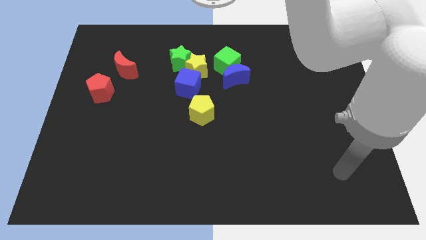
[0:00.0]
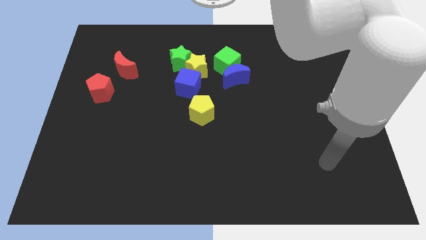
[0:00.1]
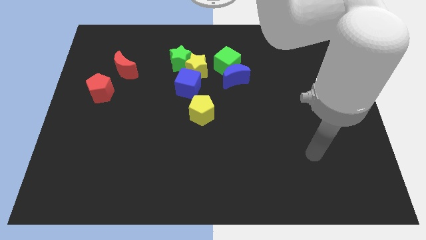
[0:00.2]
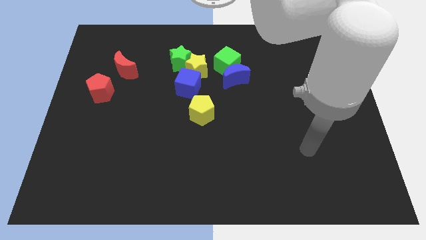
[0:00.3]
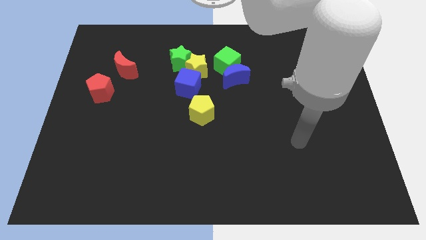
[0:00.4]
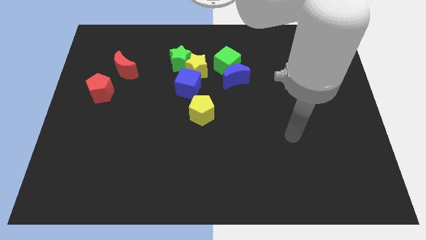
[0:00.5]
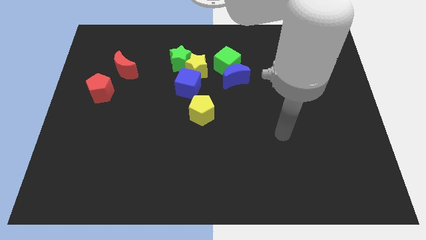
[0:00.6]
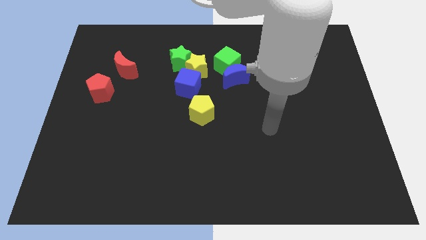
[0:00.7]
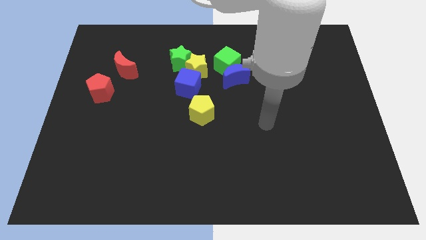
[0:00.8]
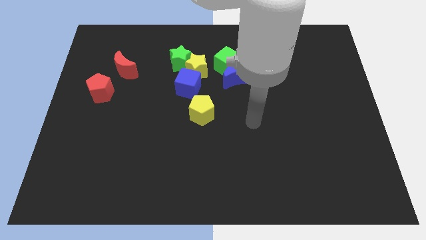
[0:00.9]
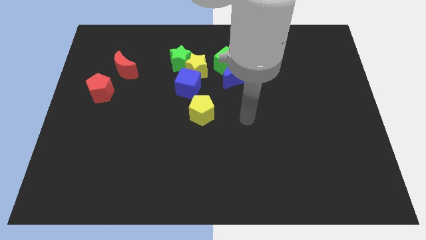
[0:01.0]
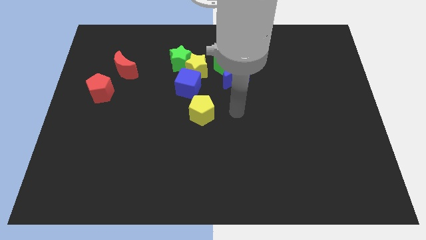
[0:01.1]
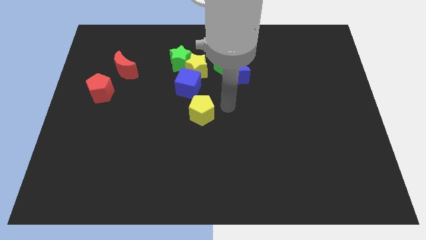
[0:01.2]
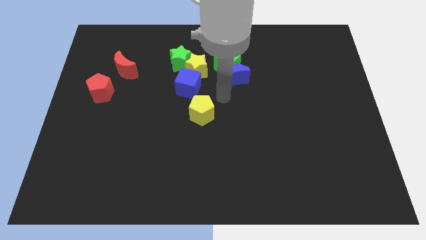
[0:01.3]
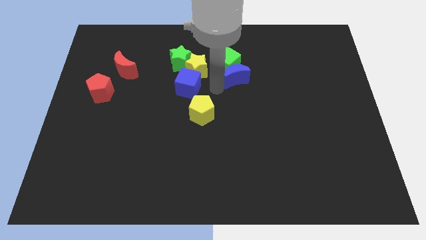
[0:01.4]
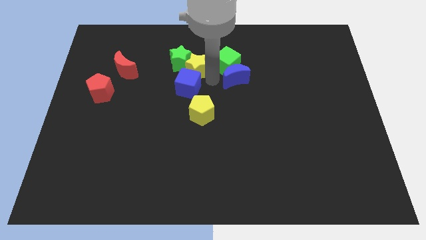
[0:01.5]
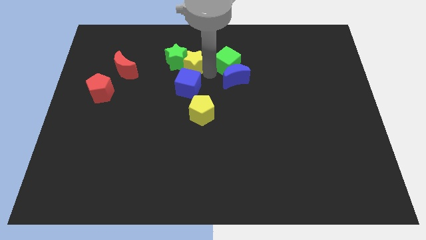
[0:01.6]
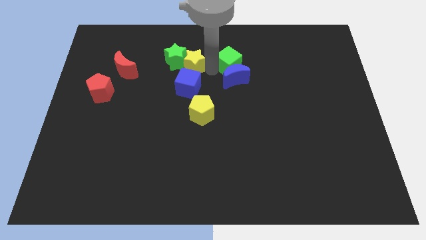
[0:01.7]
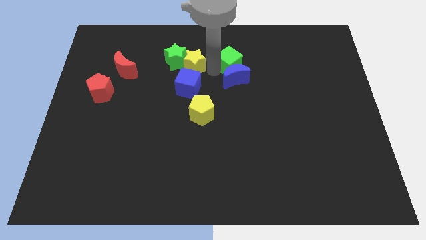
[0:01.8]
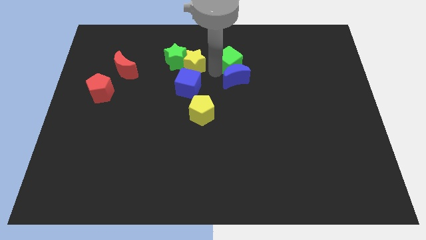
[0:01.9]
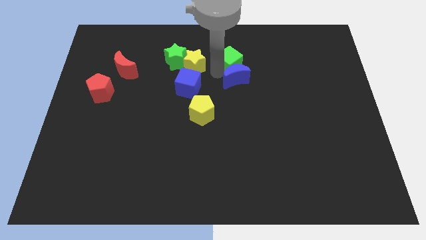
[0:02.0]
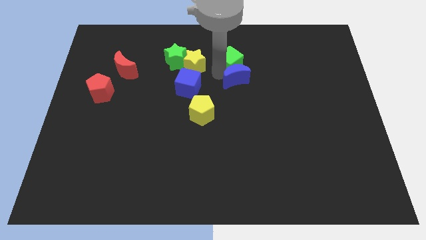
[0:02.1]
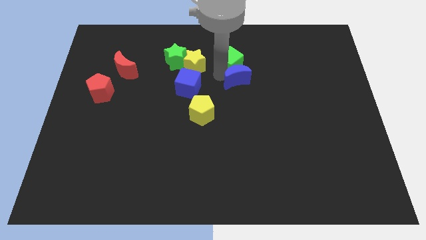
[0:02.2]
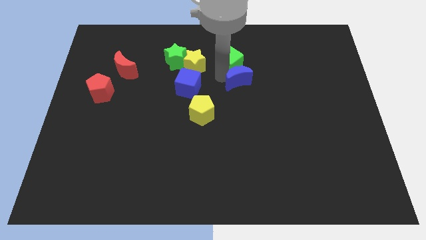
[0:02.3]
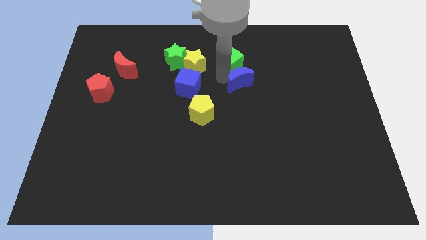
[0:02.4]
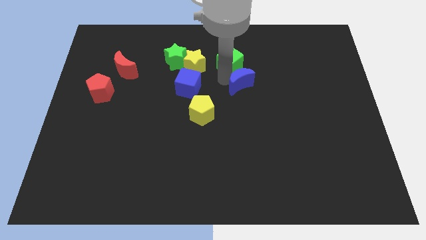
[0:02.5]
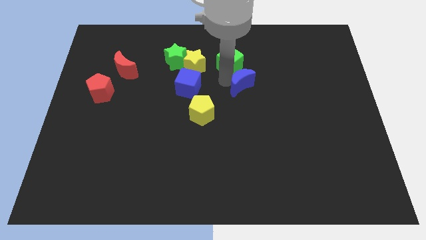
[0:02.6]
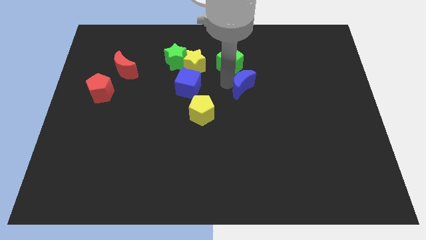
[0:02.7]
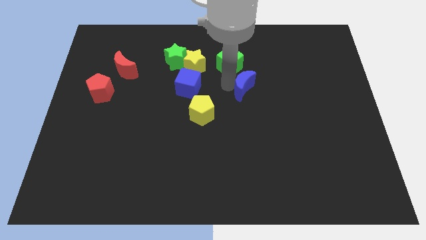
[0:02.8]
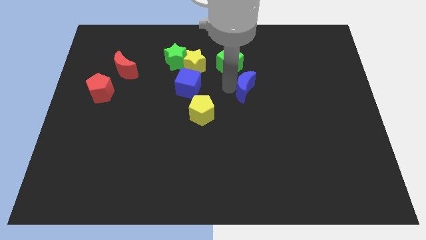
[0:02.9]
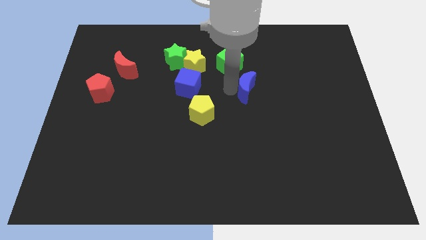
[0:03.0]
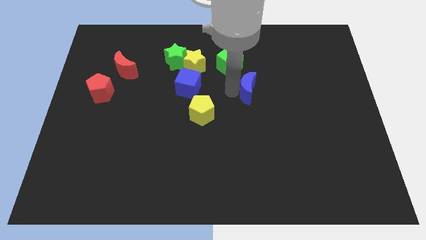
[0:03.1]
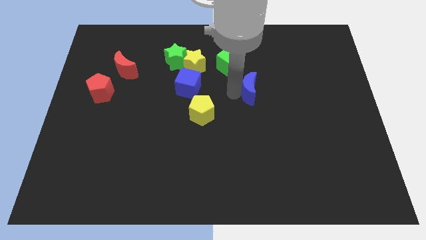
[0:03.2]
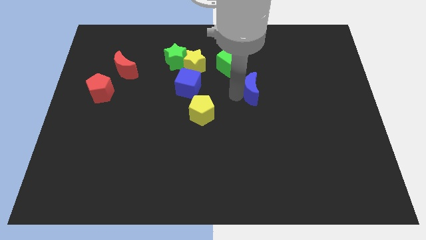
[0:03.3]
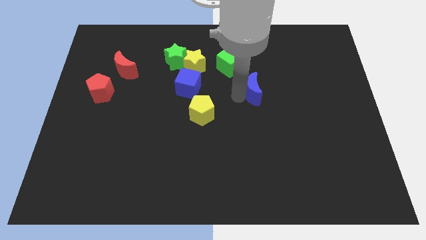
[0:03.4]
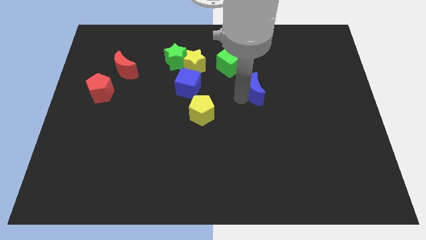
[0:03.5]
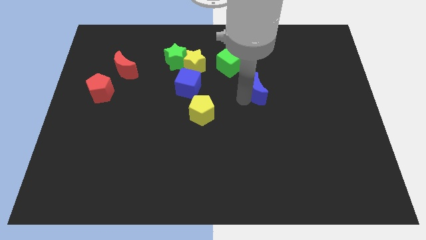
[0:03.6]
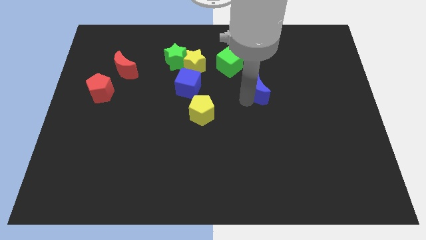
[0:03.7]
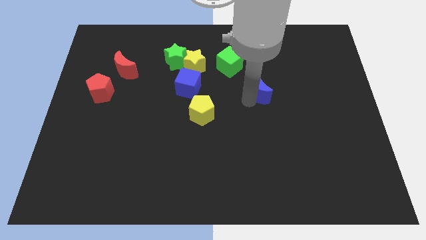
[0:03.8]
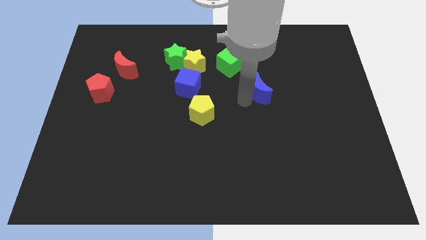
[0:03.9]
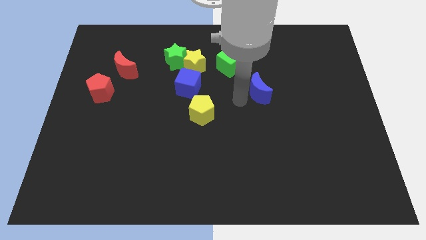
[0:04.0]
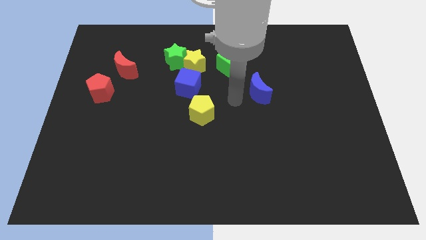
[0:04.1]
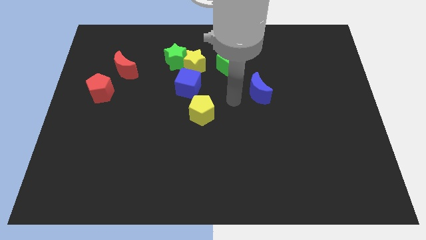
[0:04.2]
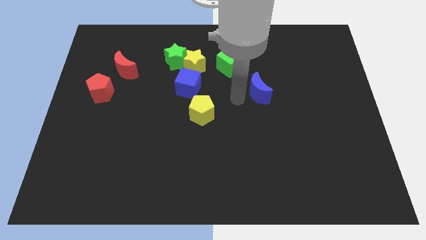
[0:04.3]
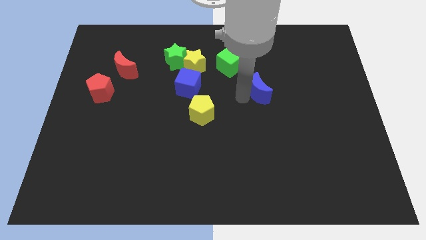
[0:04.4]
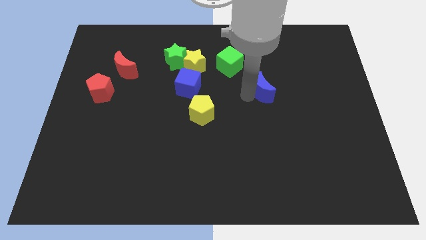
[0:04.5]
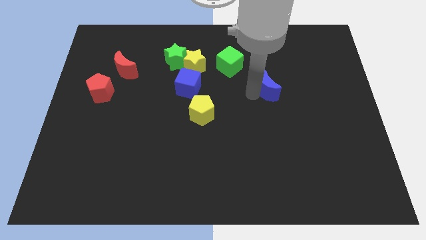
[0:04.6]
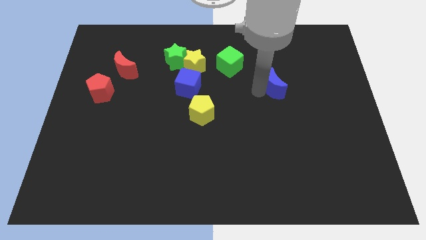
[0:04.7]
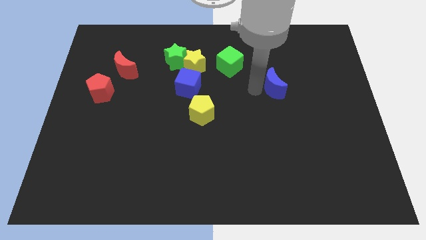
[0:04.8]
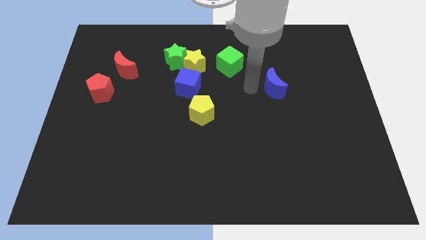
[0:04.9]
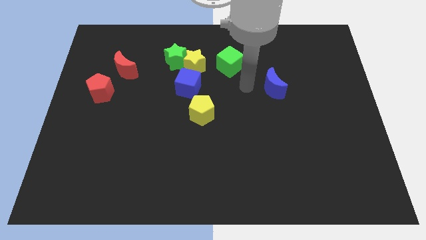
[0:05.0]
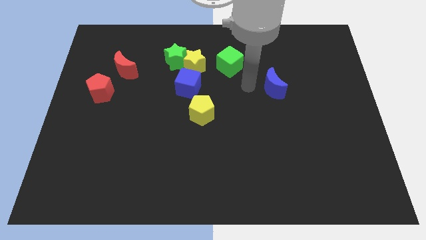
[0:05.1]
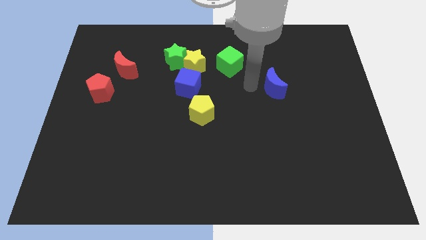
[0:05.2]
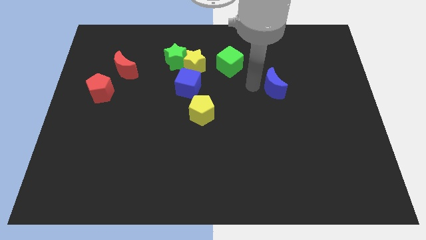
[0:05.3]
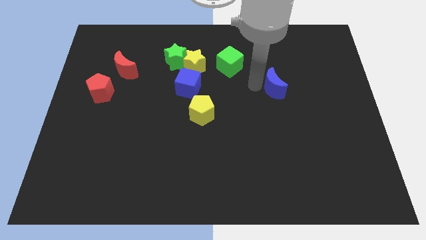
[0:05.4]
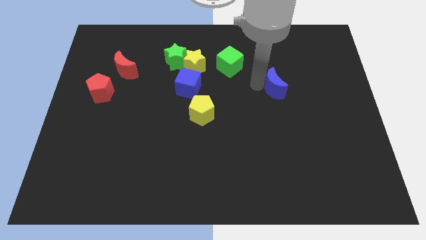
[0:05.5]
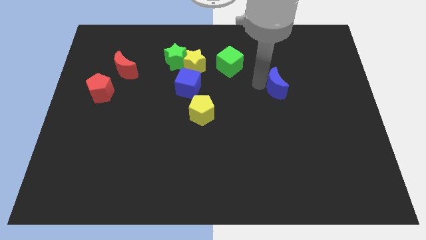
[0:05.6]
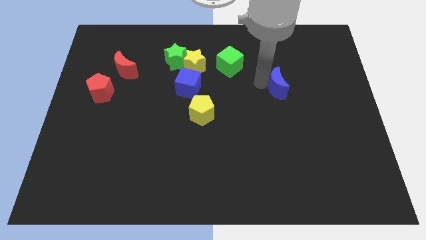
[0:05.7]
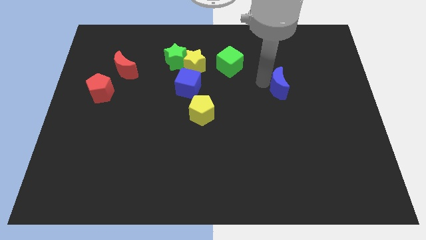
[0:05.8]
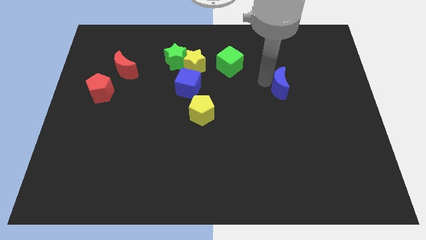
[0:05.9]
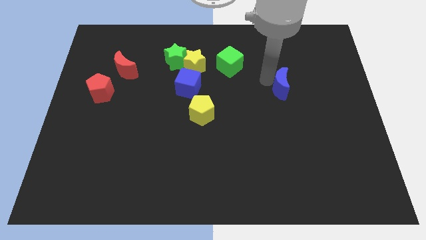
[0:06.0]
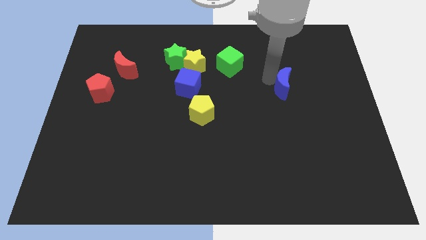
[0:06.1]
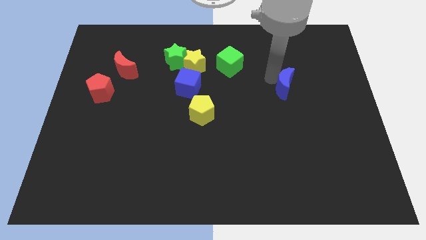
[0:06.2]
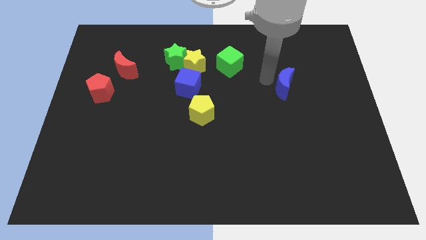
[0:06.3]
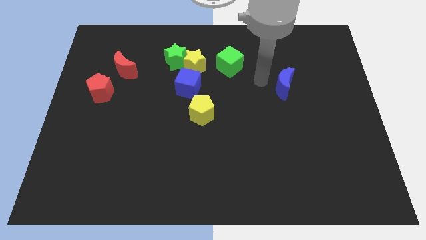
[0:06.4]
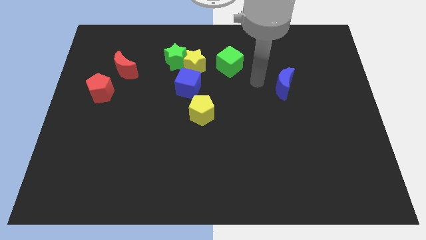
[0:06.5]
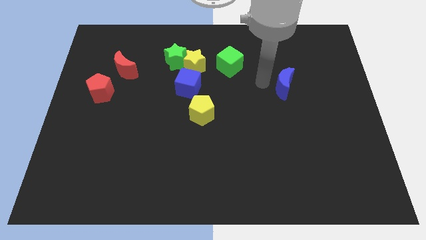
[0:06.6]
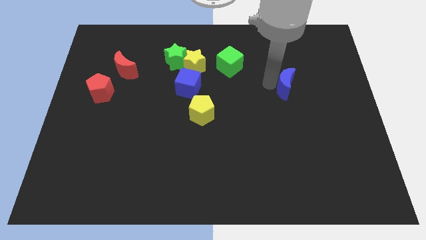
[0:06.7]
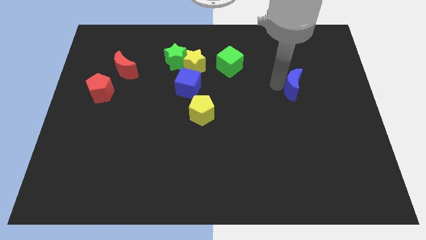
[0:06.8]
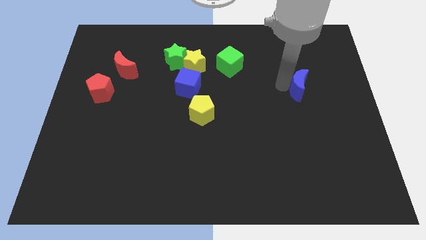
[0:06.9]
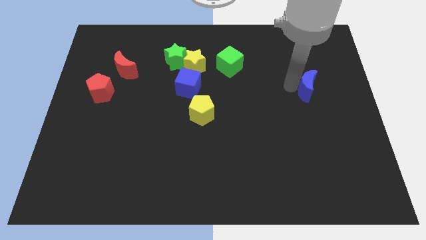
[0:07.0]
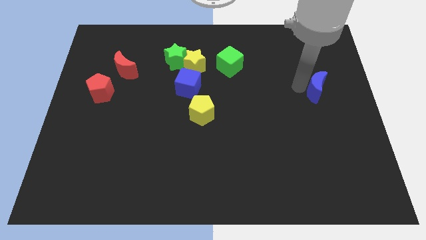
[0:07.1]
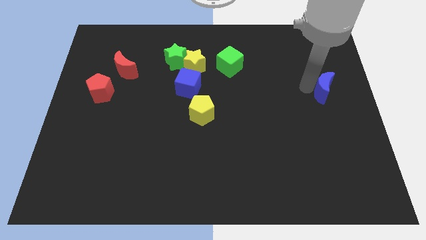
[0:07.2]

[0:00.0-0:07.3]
slide the blue moon to the center right
